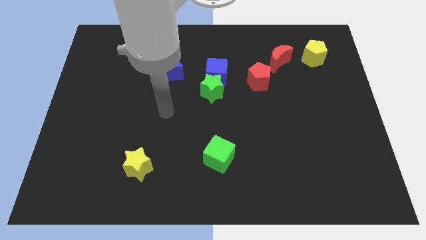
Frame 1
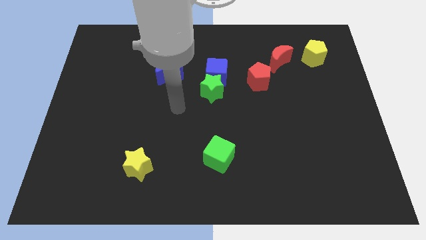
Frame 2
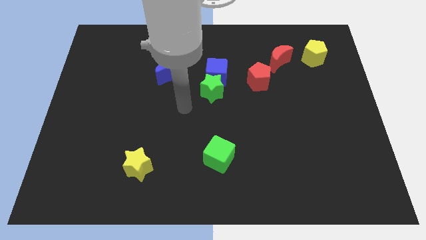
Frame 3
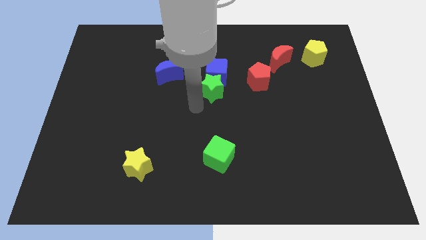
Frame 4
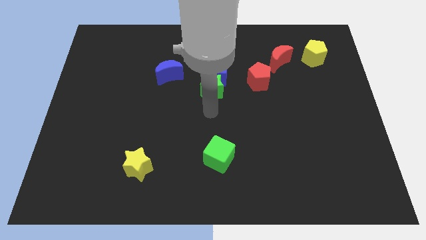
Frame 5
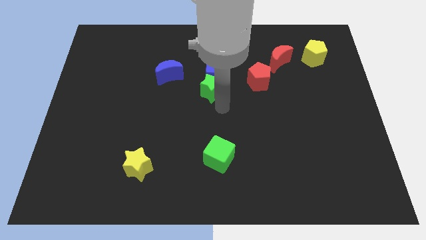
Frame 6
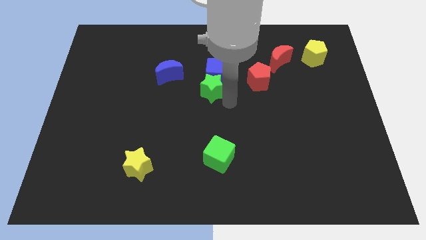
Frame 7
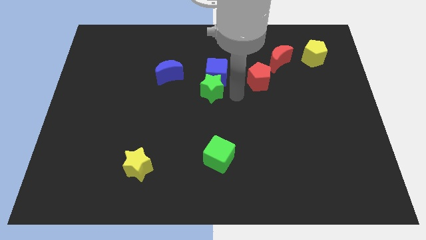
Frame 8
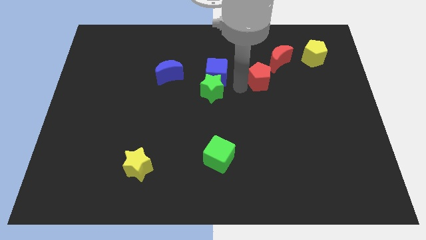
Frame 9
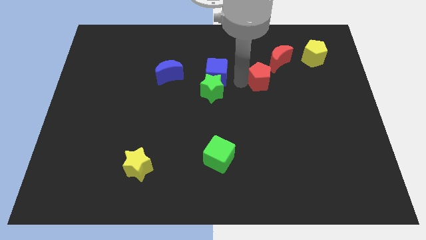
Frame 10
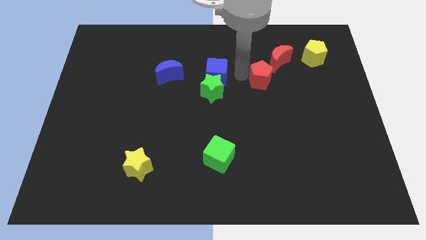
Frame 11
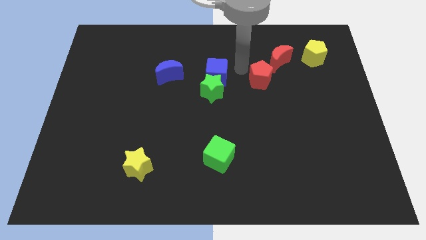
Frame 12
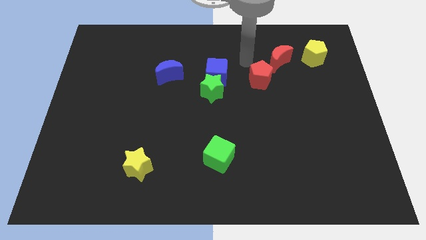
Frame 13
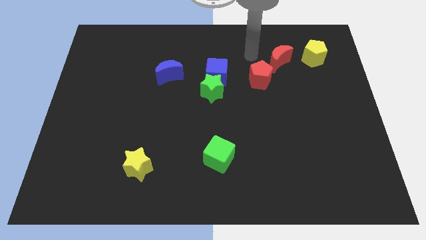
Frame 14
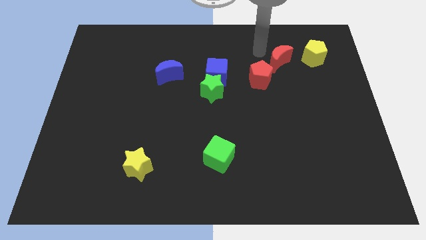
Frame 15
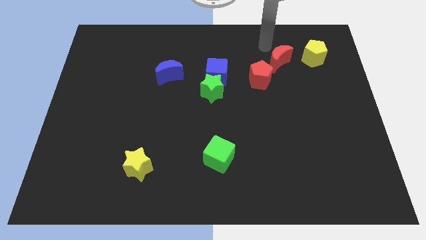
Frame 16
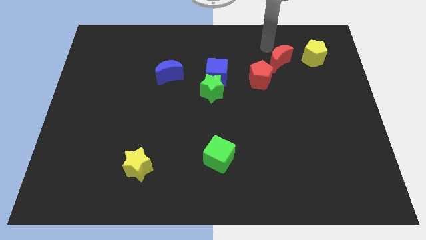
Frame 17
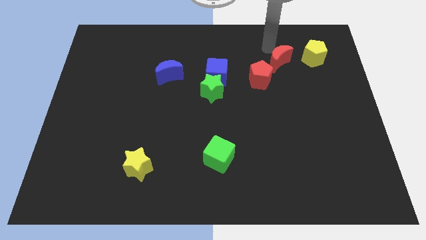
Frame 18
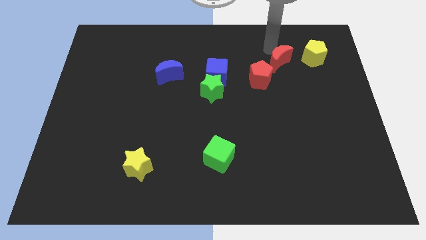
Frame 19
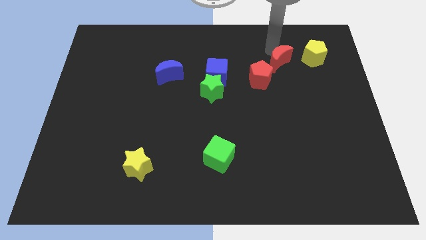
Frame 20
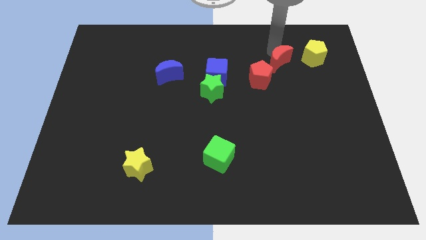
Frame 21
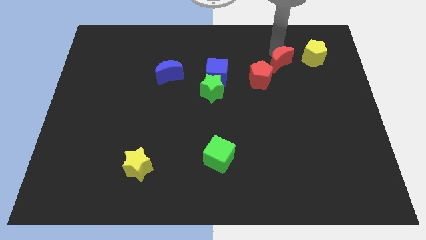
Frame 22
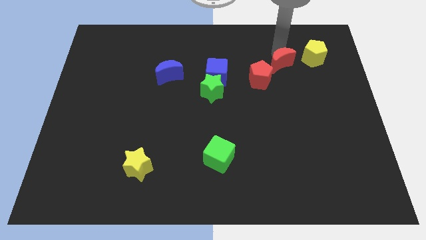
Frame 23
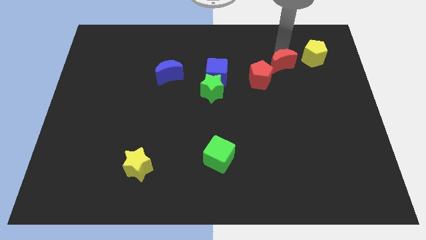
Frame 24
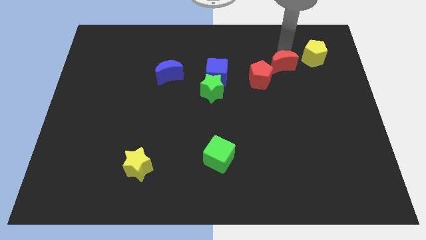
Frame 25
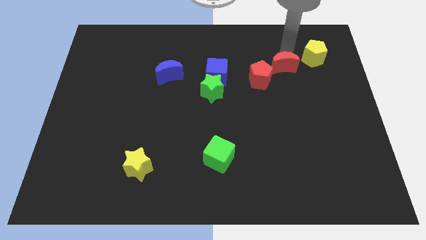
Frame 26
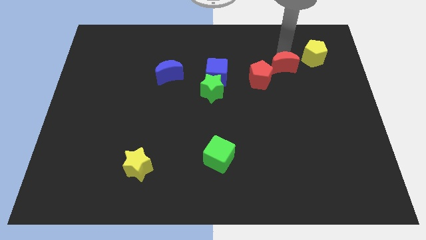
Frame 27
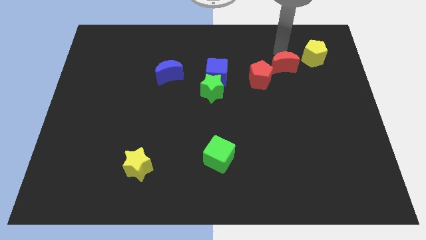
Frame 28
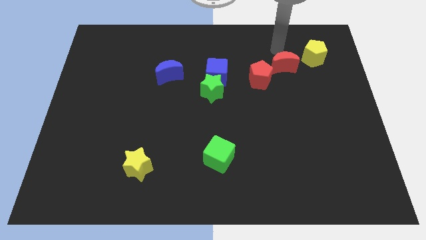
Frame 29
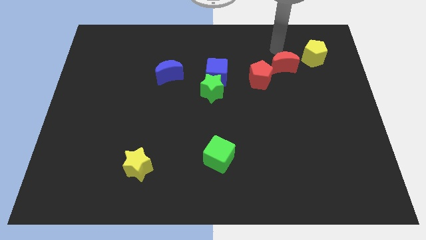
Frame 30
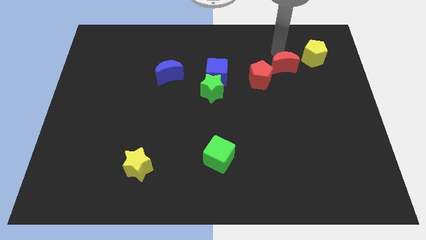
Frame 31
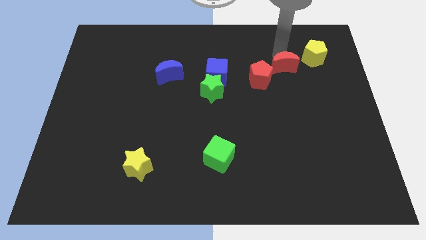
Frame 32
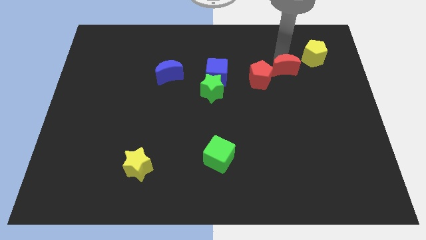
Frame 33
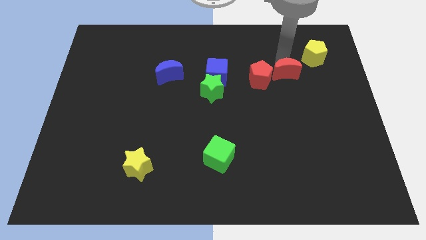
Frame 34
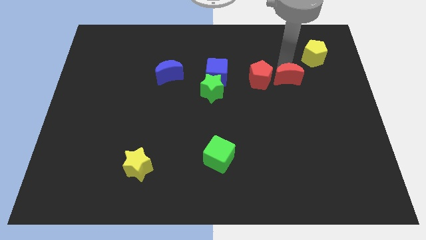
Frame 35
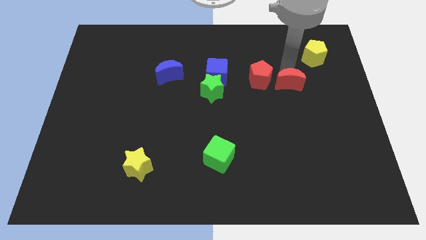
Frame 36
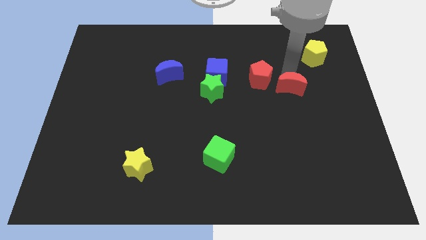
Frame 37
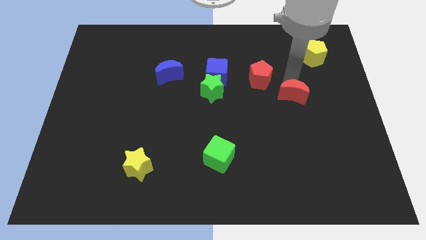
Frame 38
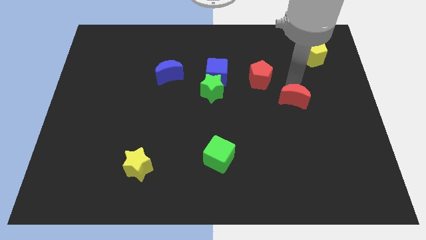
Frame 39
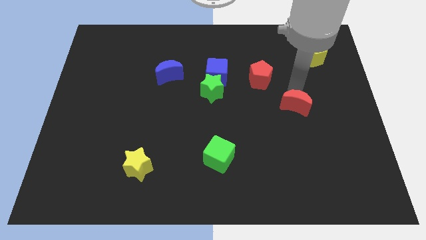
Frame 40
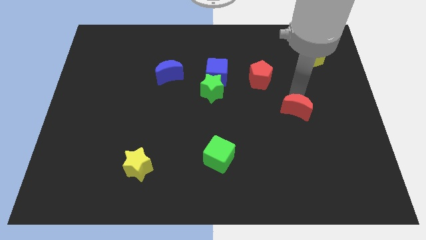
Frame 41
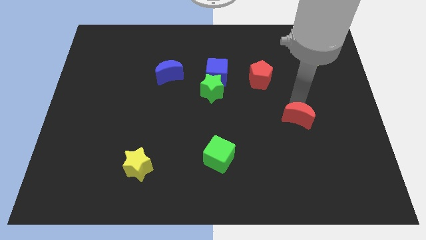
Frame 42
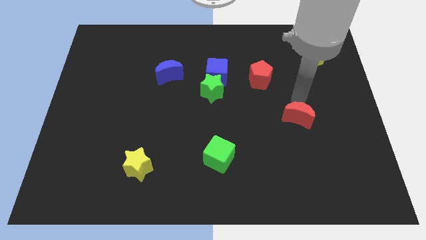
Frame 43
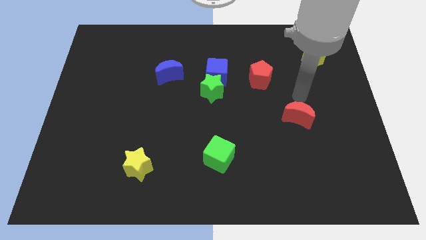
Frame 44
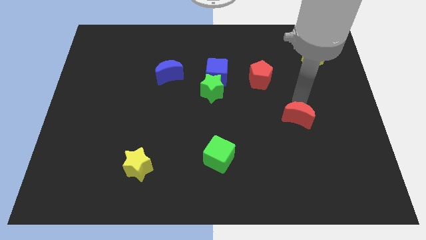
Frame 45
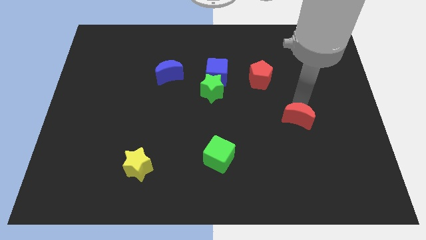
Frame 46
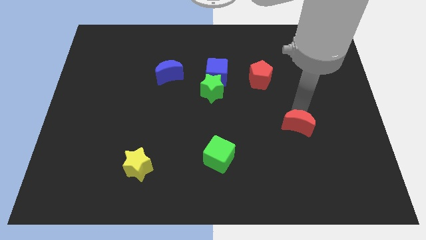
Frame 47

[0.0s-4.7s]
slide the red moon down

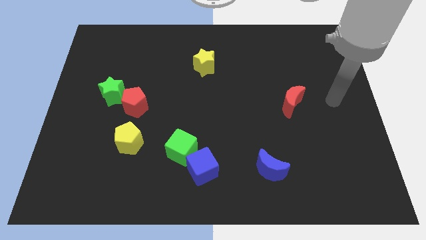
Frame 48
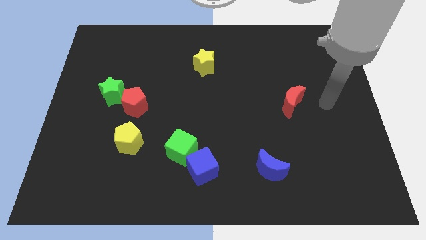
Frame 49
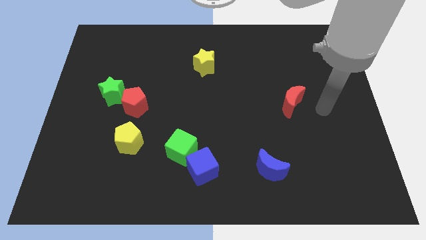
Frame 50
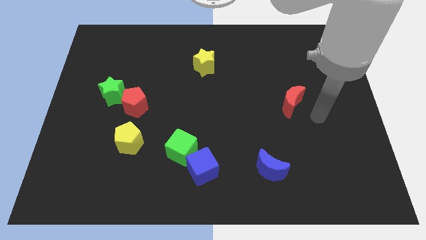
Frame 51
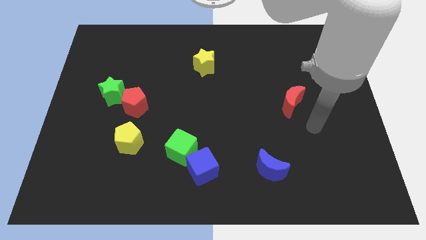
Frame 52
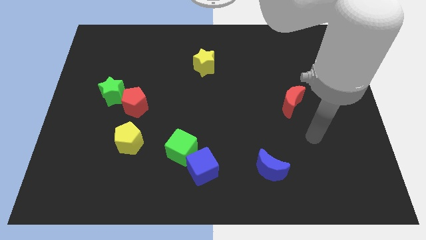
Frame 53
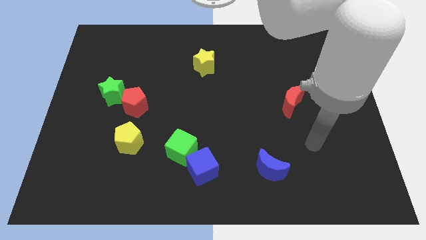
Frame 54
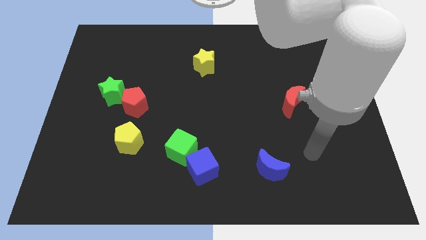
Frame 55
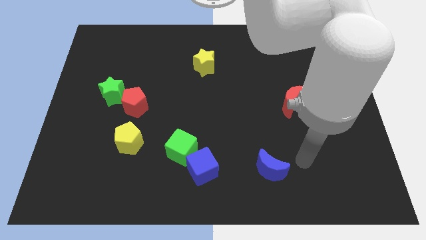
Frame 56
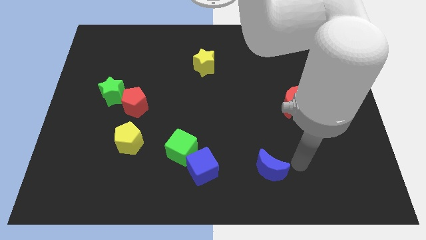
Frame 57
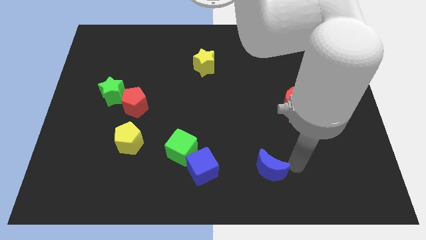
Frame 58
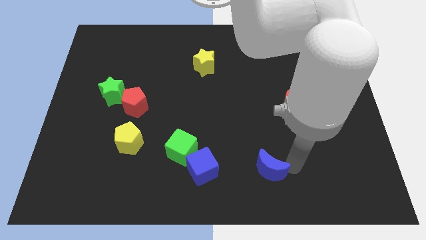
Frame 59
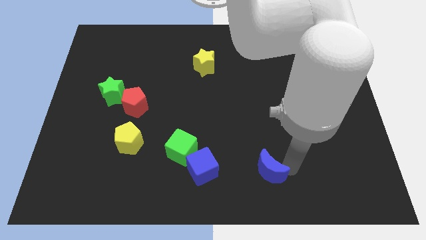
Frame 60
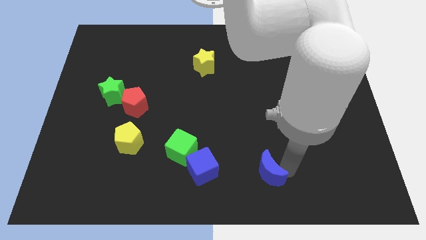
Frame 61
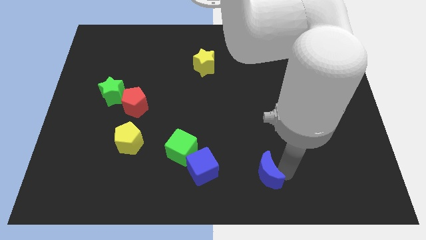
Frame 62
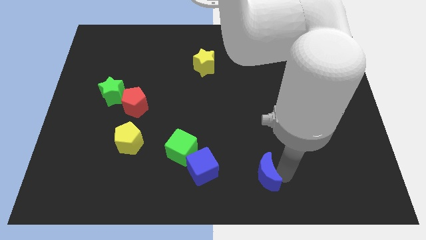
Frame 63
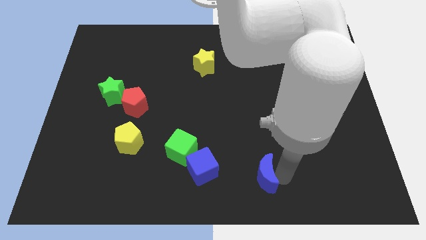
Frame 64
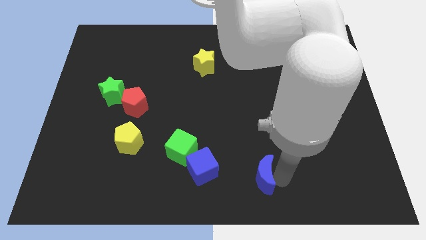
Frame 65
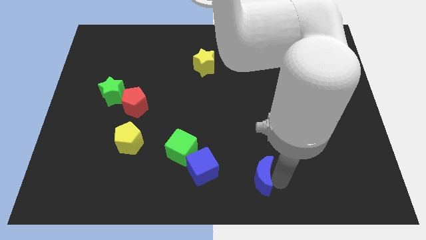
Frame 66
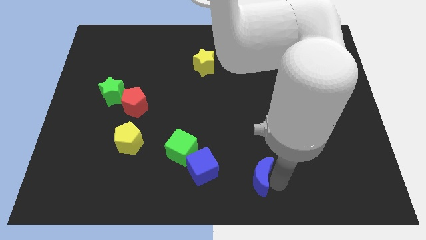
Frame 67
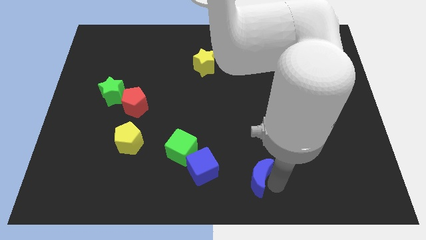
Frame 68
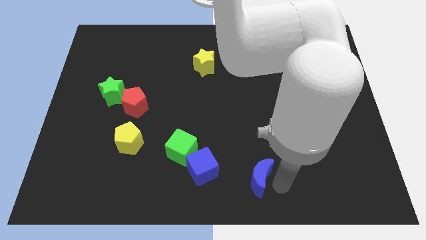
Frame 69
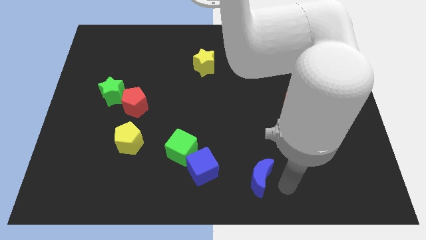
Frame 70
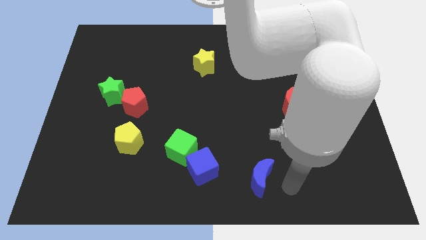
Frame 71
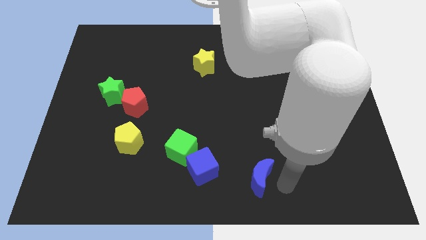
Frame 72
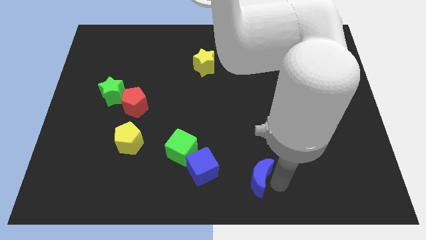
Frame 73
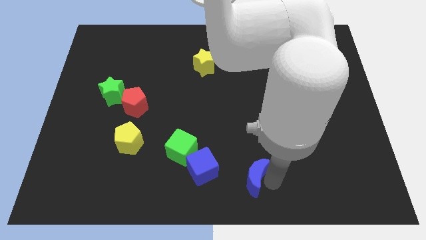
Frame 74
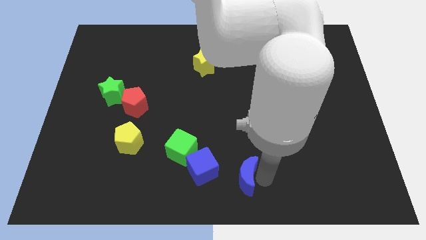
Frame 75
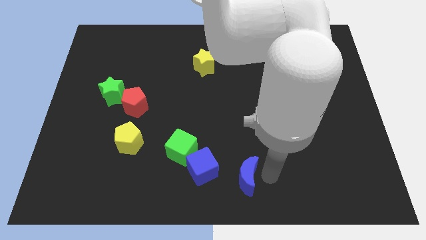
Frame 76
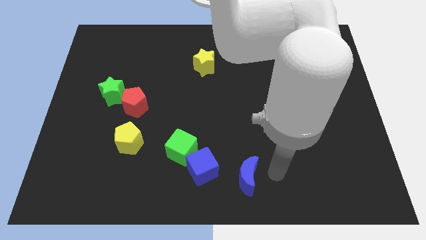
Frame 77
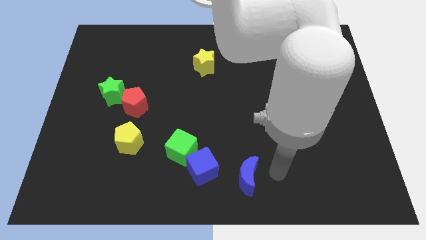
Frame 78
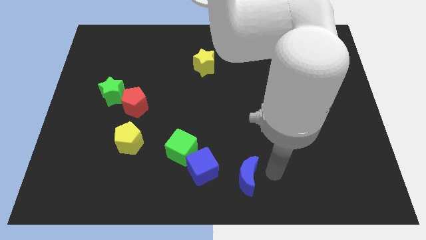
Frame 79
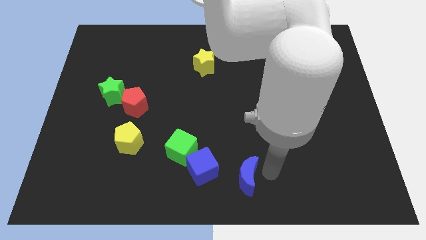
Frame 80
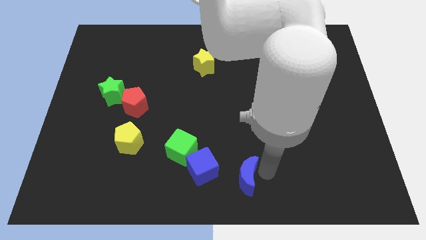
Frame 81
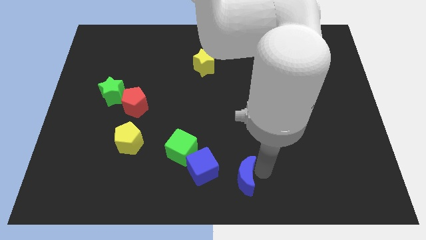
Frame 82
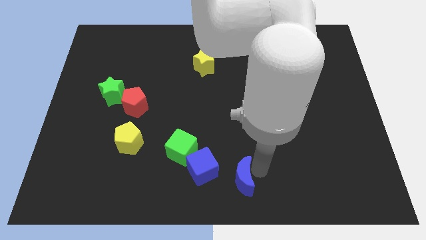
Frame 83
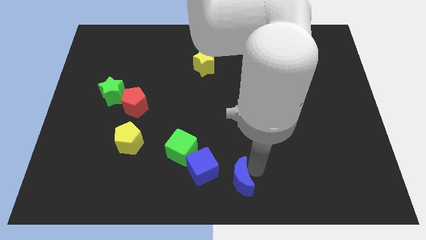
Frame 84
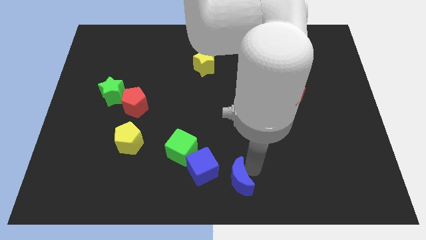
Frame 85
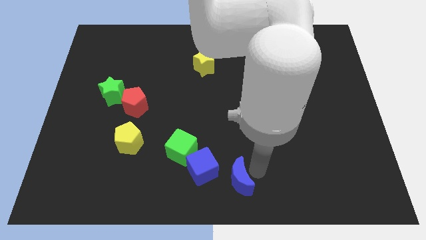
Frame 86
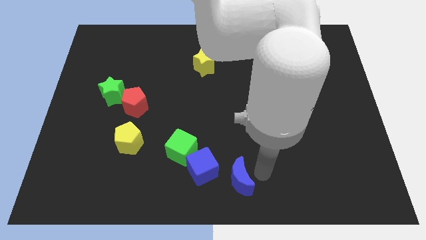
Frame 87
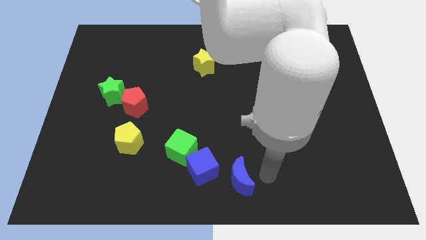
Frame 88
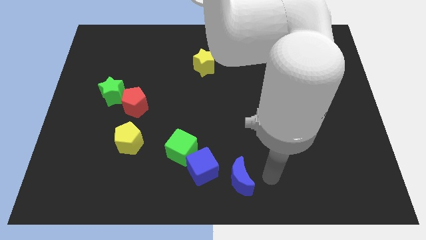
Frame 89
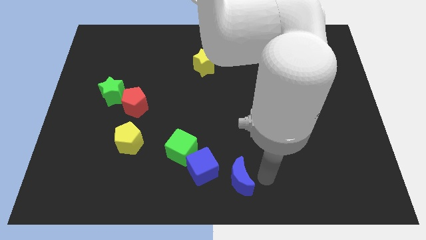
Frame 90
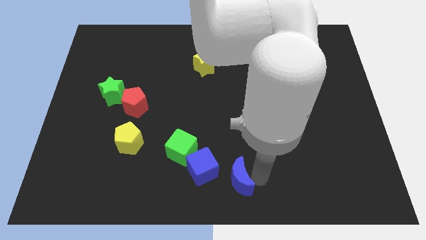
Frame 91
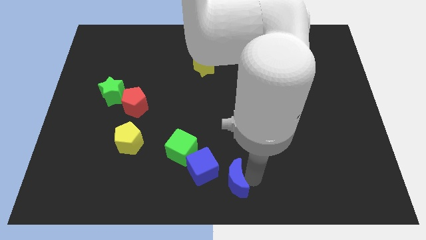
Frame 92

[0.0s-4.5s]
push the blue moon somewhat left
